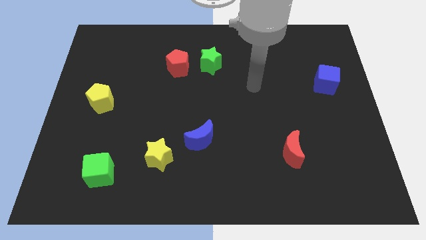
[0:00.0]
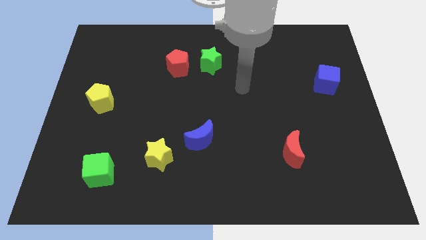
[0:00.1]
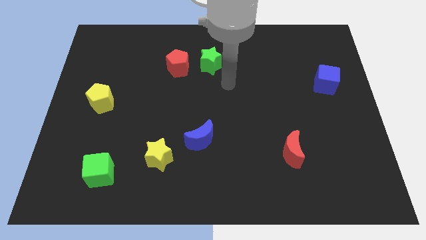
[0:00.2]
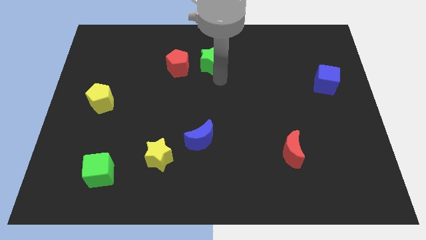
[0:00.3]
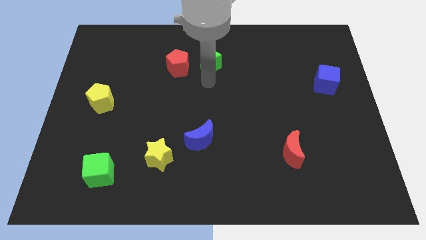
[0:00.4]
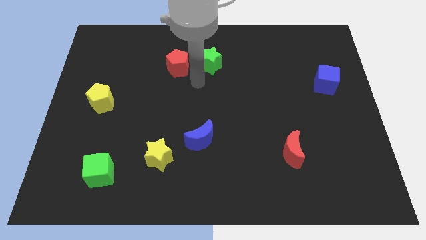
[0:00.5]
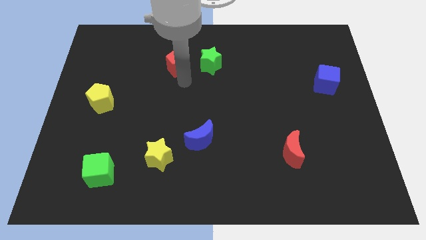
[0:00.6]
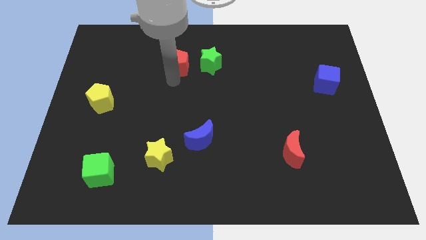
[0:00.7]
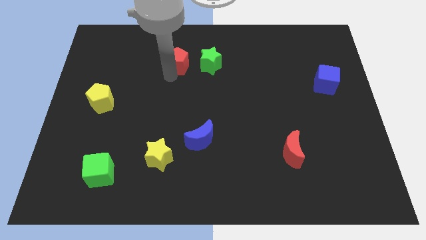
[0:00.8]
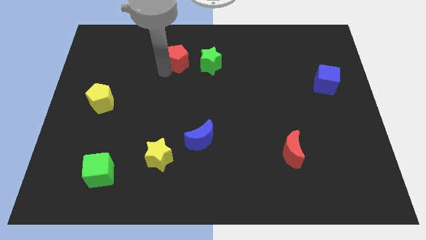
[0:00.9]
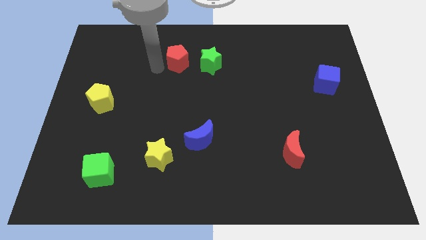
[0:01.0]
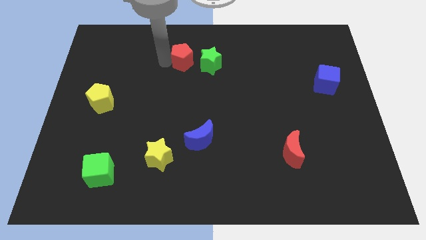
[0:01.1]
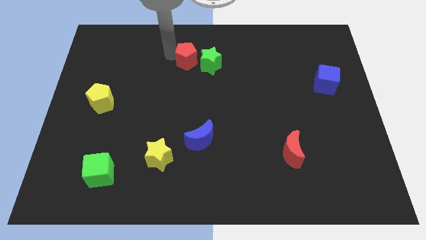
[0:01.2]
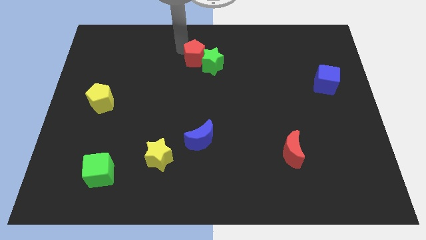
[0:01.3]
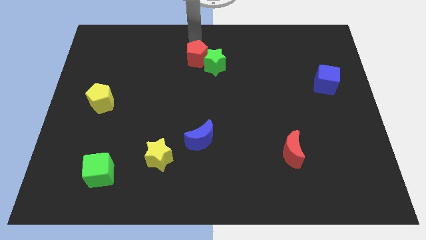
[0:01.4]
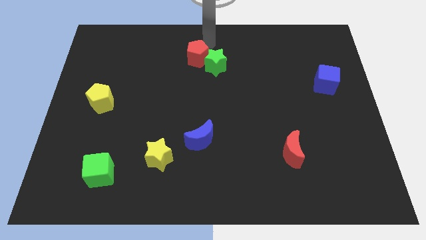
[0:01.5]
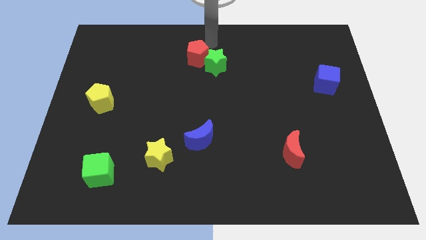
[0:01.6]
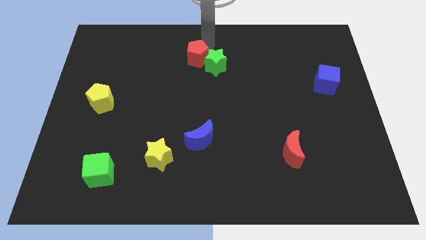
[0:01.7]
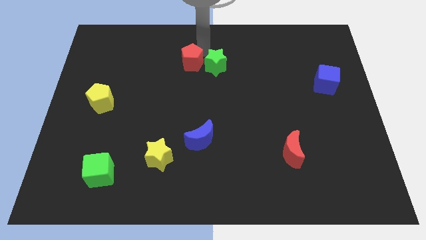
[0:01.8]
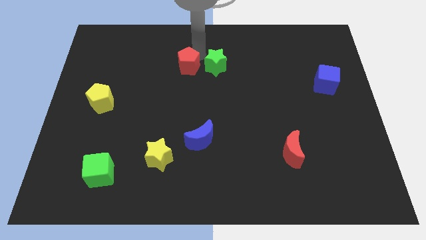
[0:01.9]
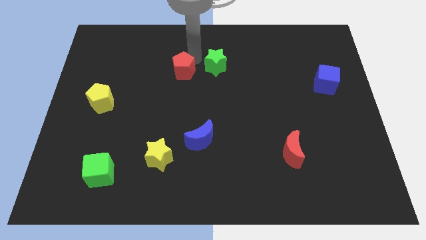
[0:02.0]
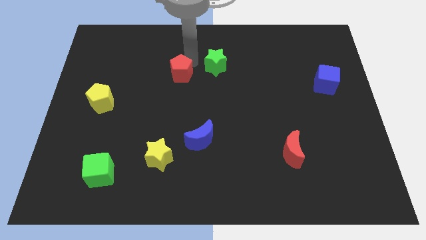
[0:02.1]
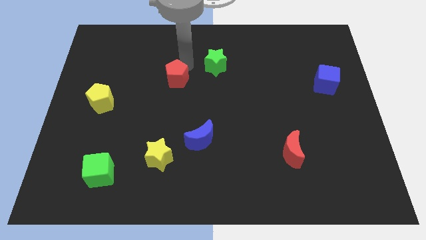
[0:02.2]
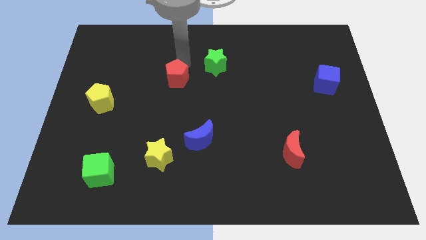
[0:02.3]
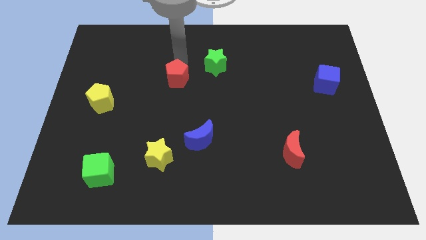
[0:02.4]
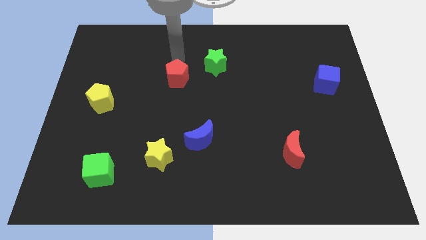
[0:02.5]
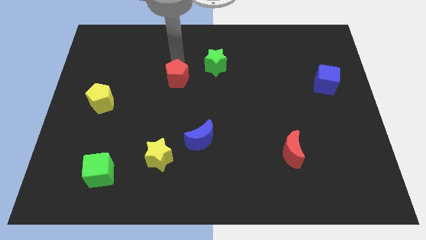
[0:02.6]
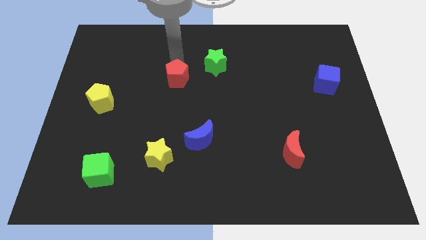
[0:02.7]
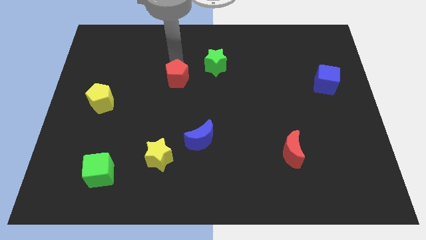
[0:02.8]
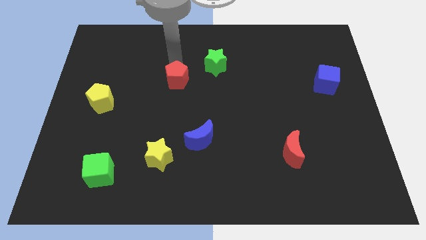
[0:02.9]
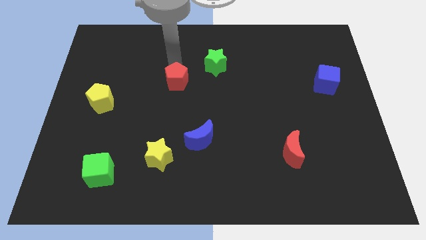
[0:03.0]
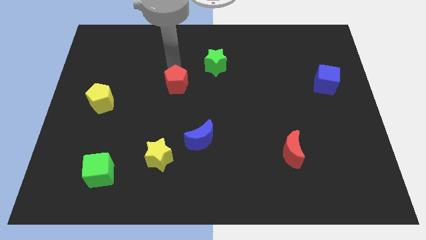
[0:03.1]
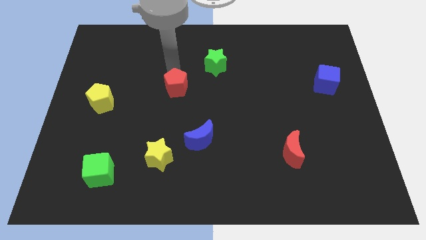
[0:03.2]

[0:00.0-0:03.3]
slightly push the red pentagon downwards

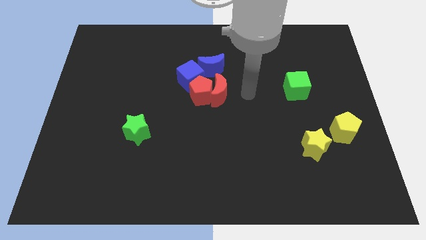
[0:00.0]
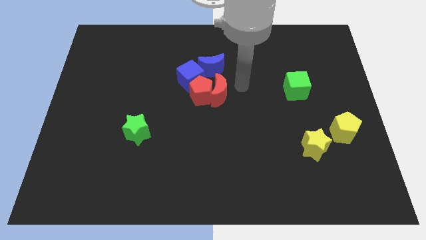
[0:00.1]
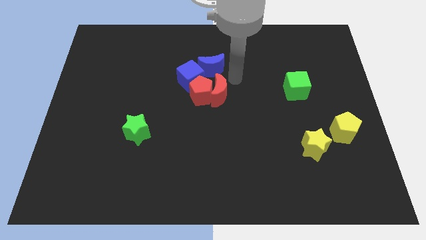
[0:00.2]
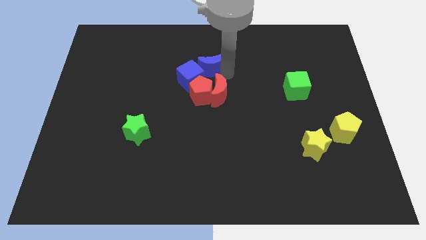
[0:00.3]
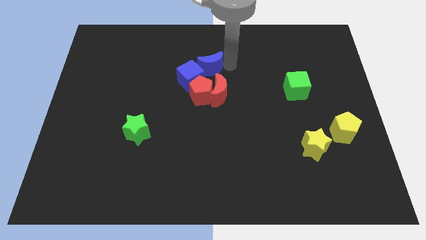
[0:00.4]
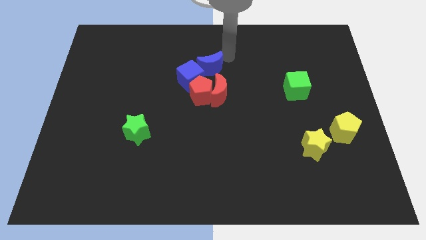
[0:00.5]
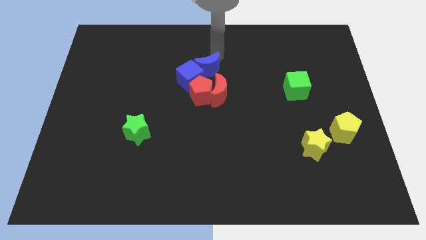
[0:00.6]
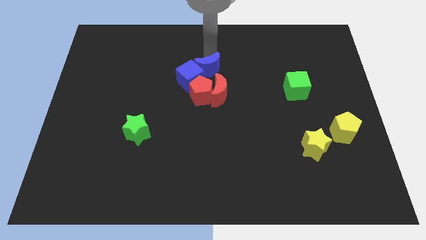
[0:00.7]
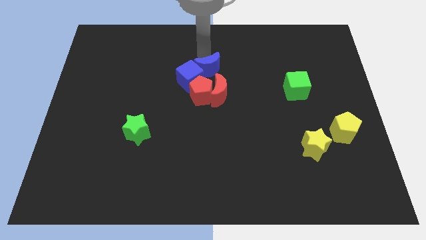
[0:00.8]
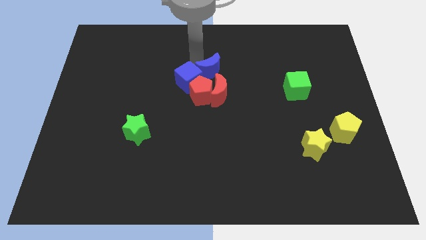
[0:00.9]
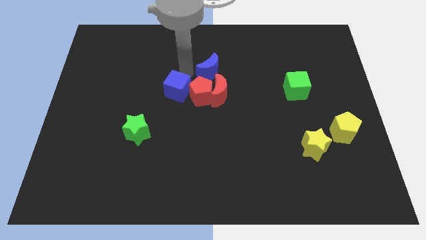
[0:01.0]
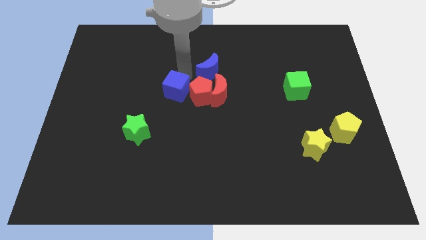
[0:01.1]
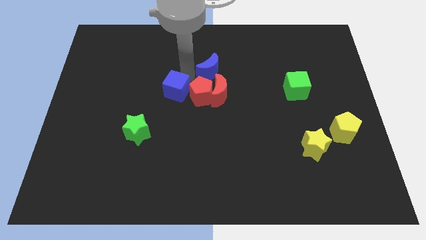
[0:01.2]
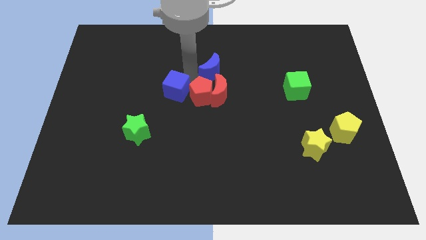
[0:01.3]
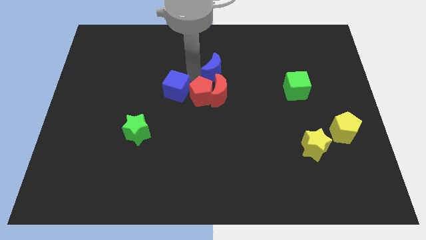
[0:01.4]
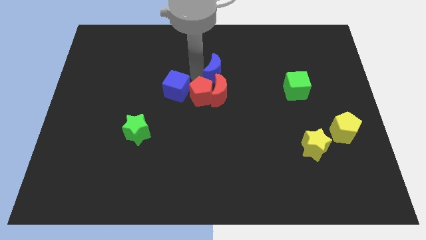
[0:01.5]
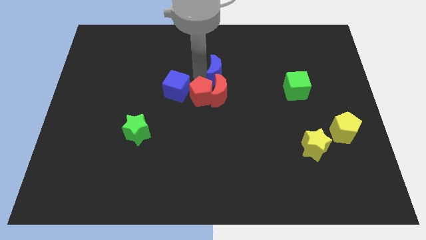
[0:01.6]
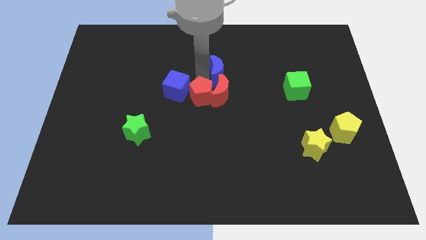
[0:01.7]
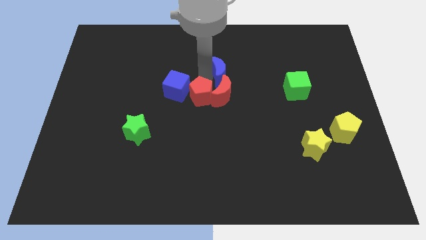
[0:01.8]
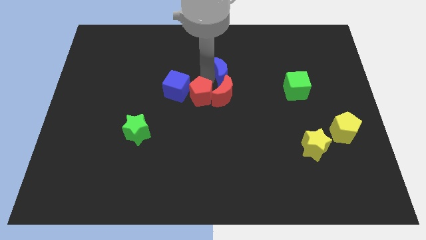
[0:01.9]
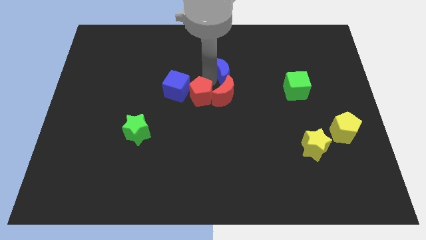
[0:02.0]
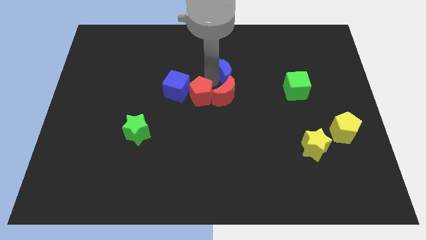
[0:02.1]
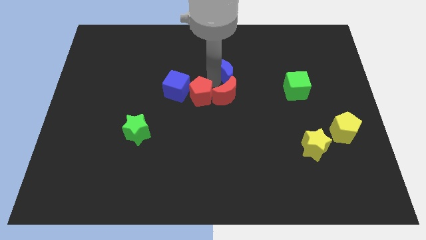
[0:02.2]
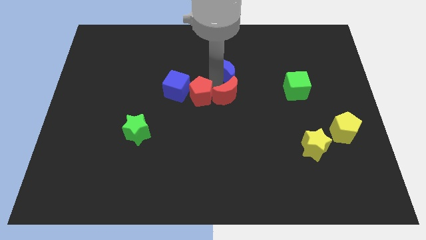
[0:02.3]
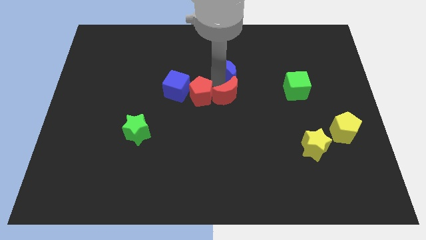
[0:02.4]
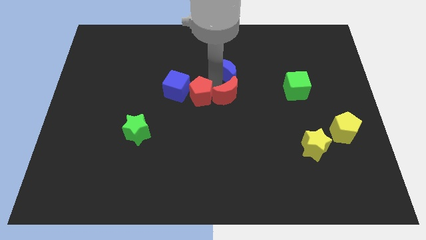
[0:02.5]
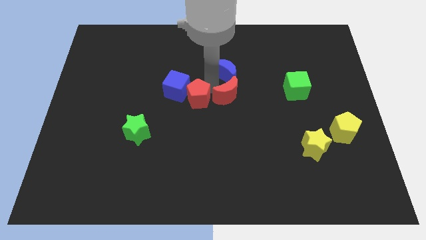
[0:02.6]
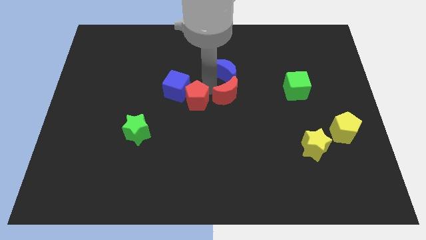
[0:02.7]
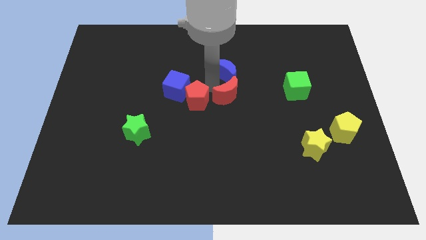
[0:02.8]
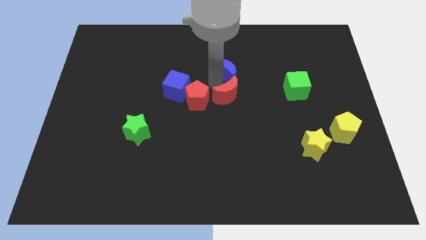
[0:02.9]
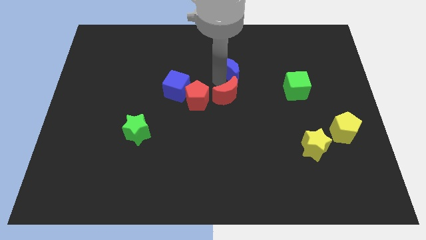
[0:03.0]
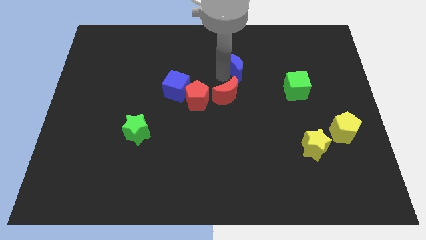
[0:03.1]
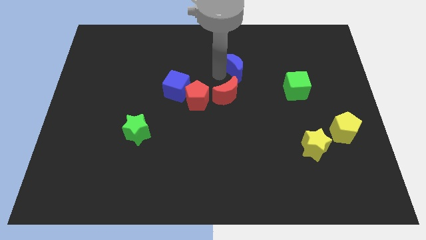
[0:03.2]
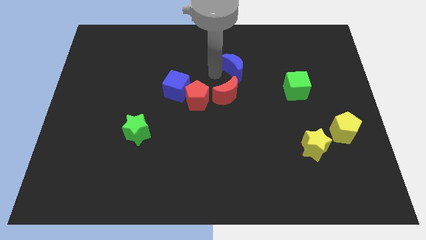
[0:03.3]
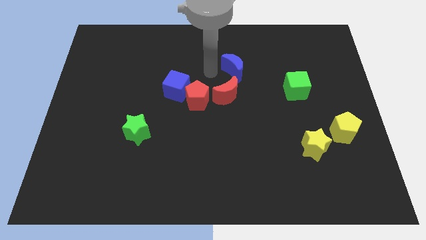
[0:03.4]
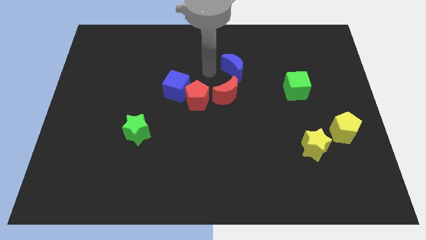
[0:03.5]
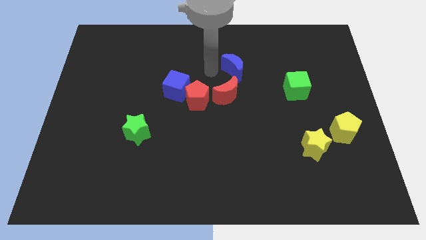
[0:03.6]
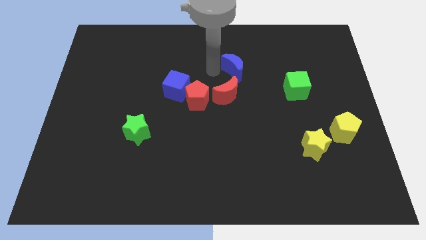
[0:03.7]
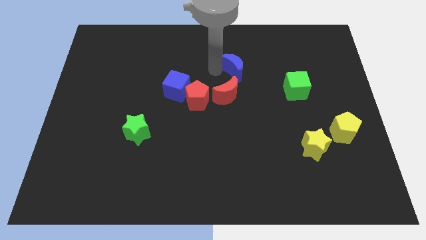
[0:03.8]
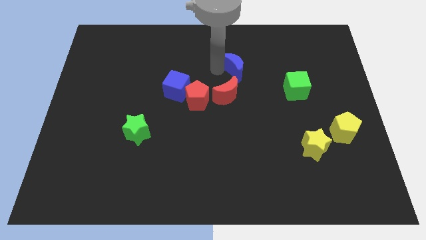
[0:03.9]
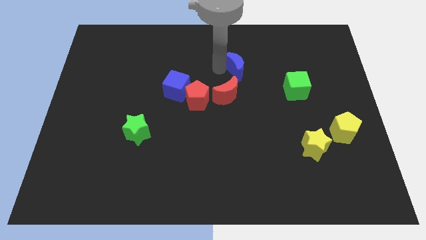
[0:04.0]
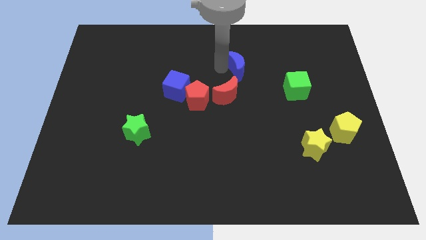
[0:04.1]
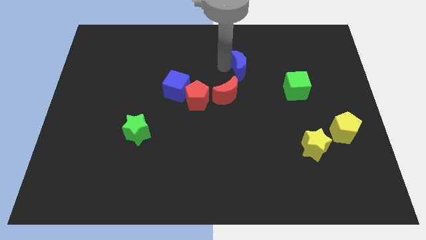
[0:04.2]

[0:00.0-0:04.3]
slide the blue moon a little bit to the right

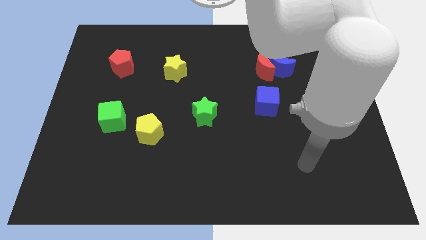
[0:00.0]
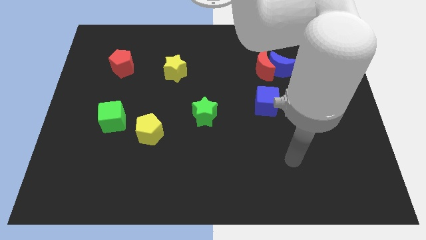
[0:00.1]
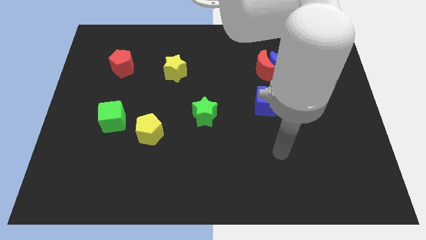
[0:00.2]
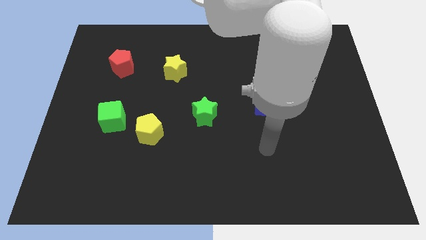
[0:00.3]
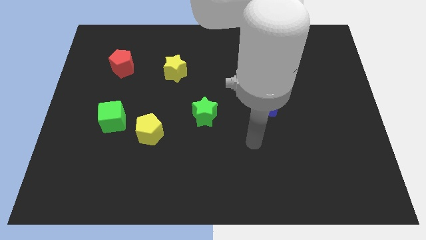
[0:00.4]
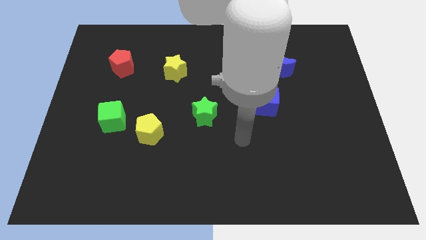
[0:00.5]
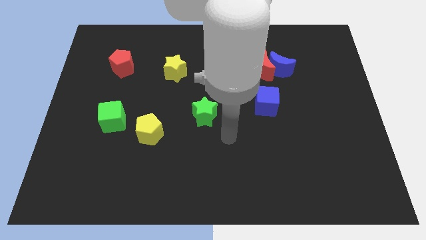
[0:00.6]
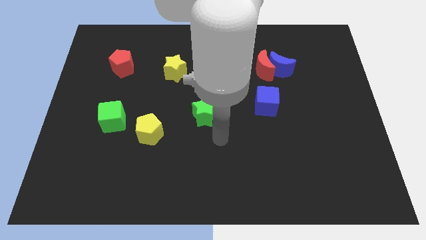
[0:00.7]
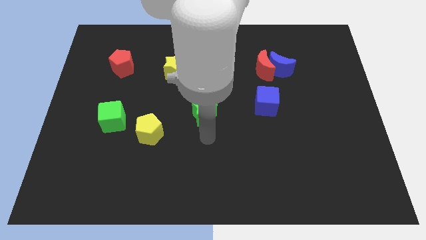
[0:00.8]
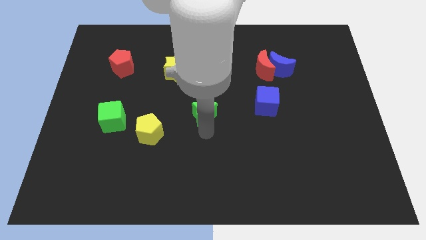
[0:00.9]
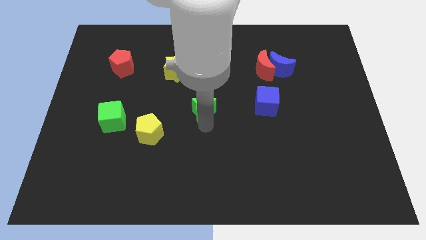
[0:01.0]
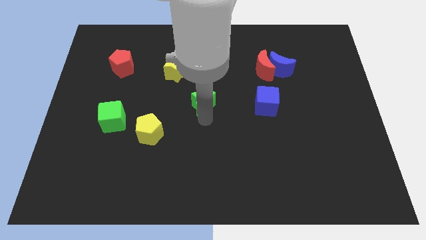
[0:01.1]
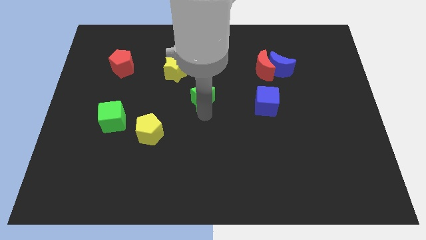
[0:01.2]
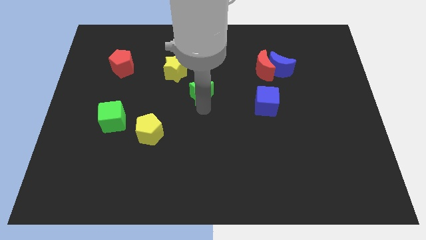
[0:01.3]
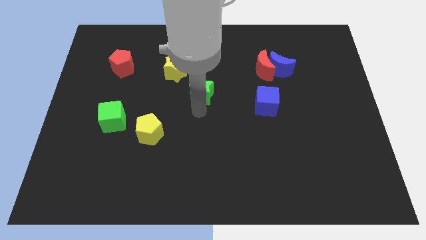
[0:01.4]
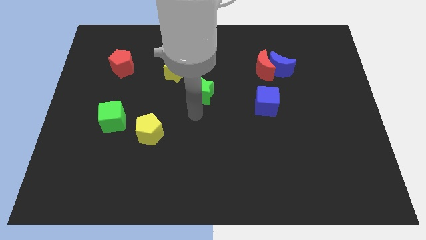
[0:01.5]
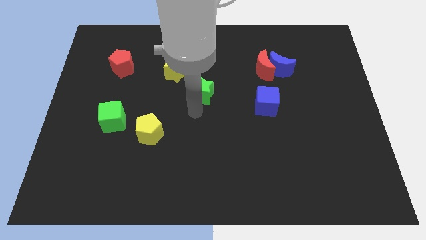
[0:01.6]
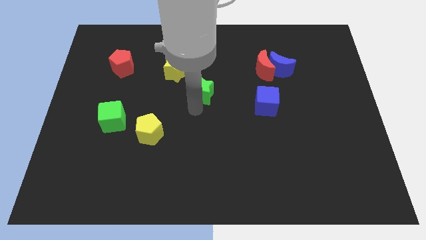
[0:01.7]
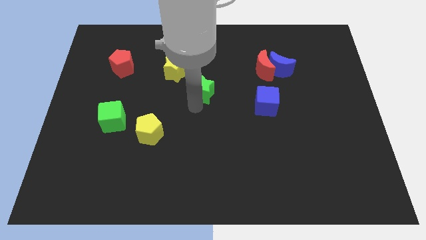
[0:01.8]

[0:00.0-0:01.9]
slightly slide the green star upwards
